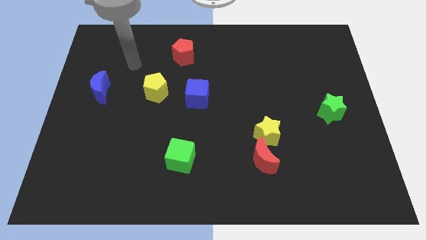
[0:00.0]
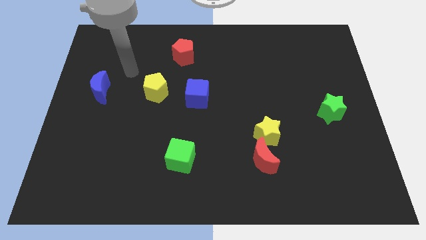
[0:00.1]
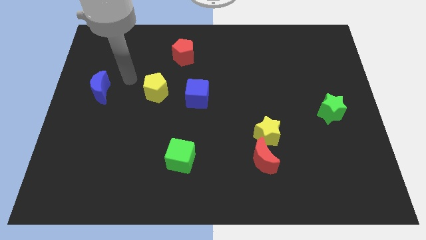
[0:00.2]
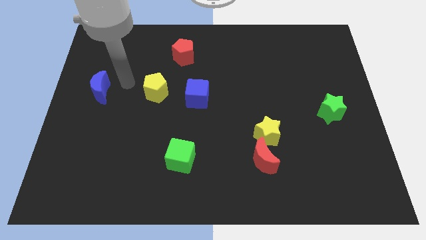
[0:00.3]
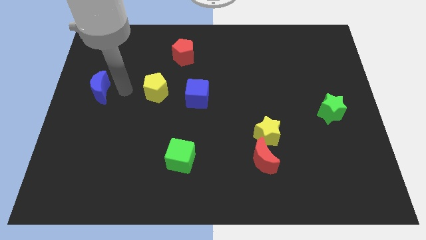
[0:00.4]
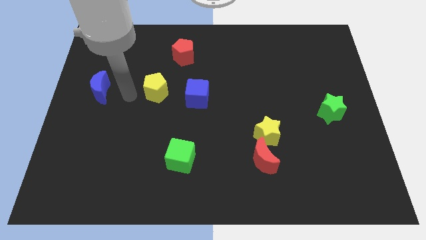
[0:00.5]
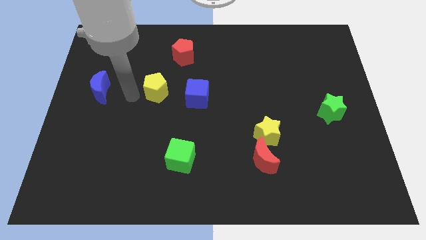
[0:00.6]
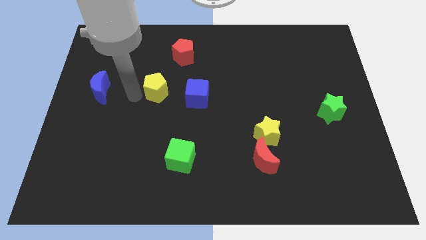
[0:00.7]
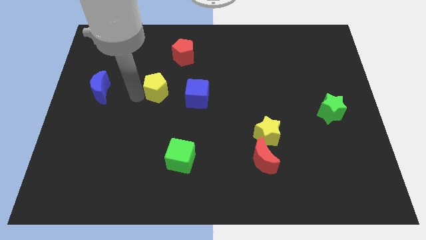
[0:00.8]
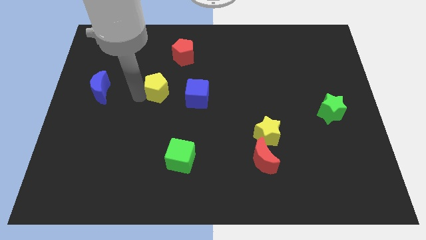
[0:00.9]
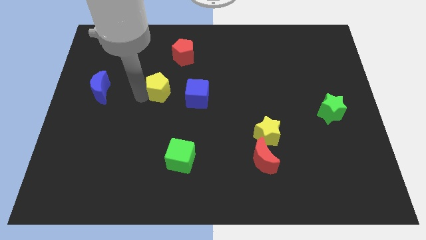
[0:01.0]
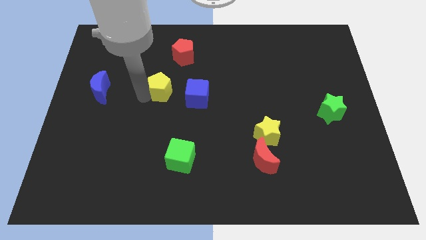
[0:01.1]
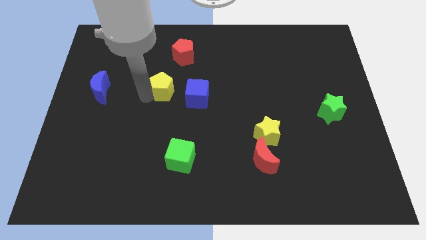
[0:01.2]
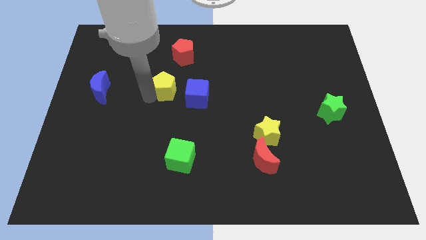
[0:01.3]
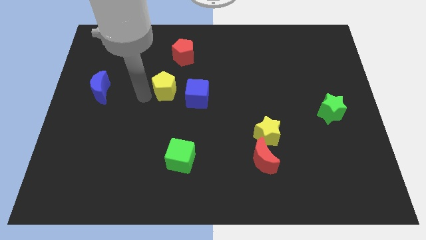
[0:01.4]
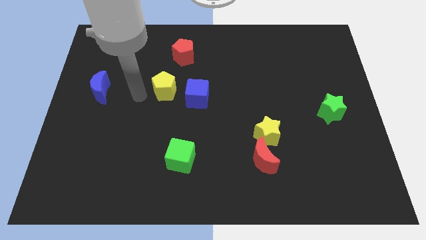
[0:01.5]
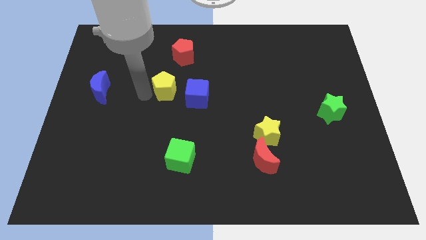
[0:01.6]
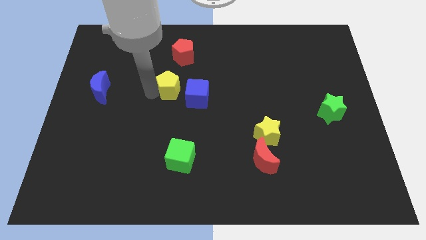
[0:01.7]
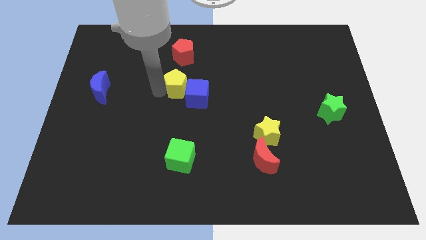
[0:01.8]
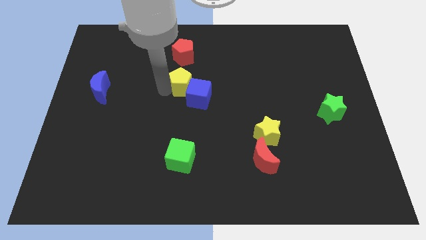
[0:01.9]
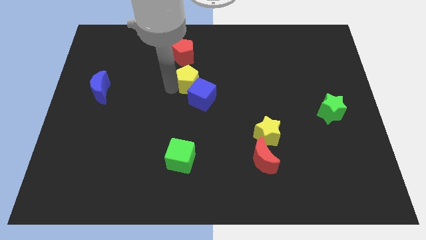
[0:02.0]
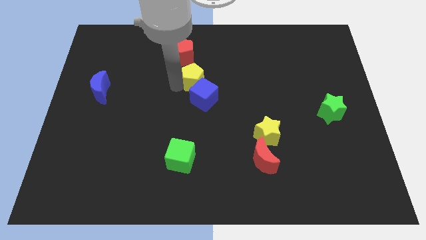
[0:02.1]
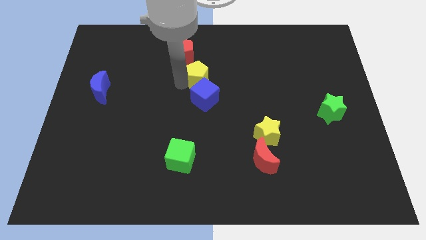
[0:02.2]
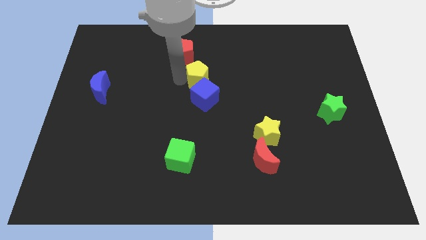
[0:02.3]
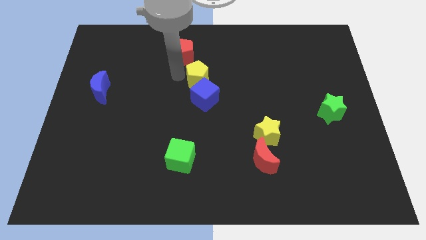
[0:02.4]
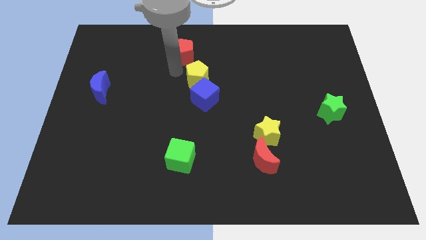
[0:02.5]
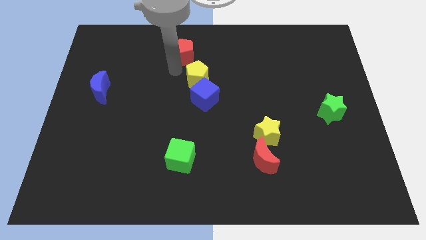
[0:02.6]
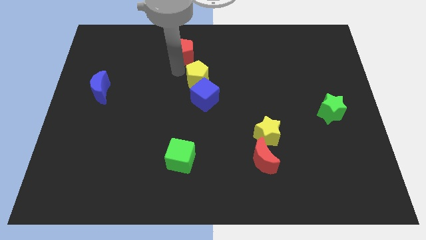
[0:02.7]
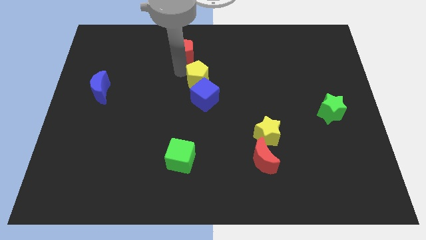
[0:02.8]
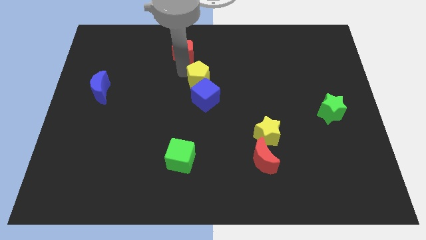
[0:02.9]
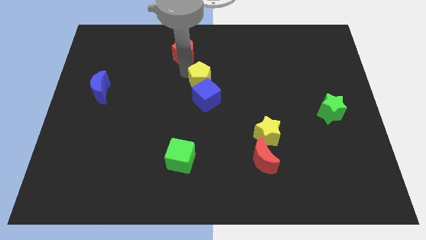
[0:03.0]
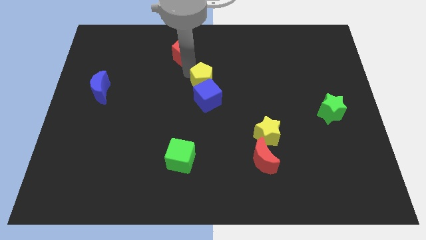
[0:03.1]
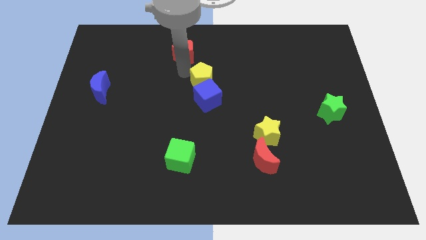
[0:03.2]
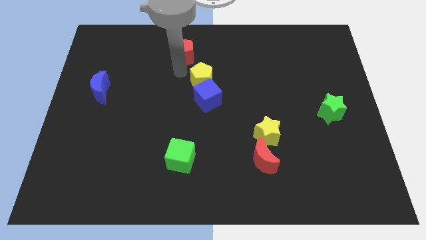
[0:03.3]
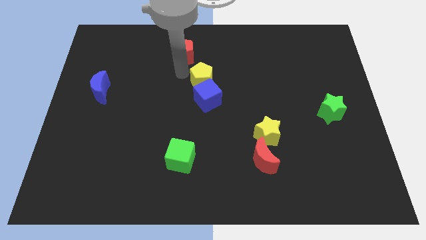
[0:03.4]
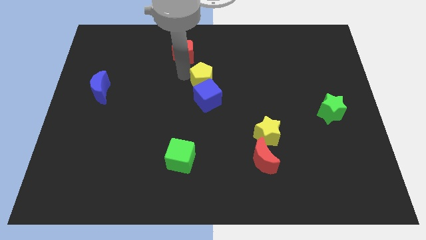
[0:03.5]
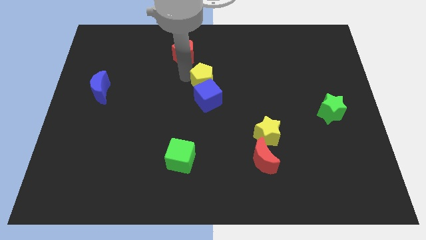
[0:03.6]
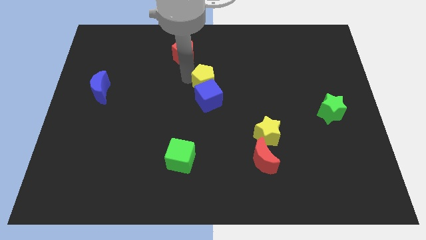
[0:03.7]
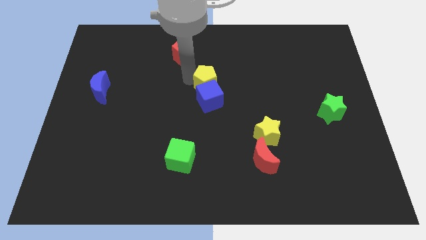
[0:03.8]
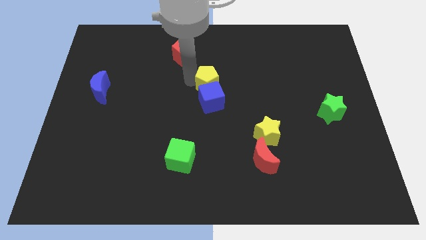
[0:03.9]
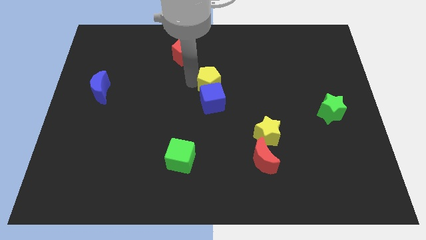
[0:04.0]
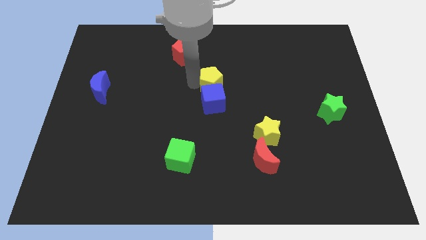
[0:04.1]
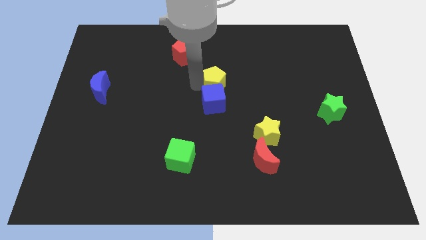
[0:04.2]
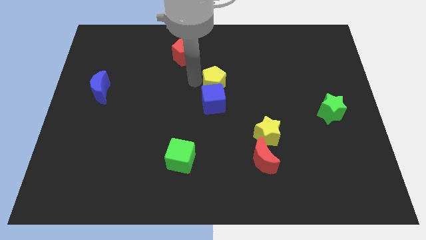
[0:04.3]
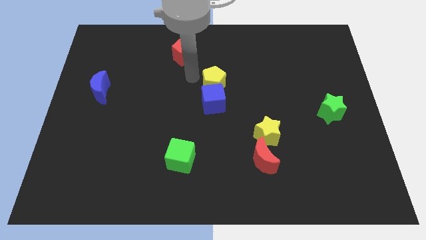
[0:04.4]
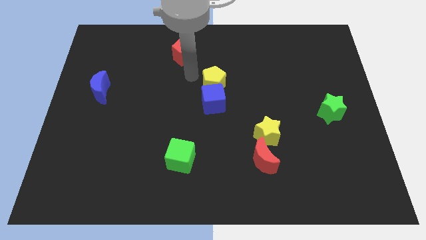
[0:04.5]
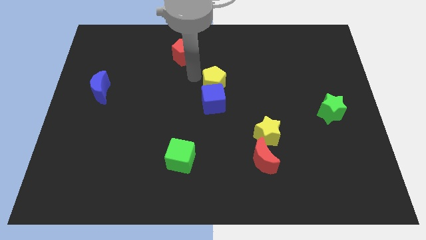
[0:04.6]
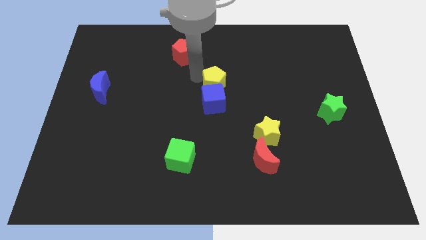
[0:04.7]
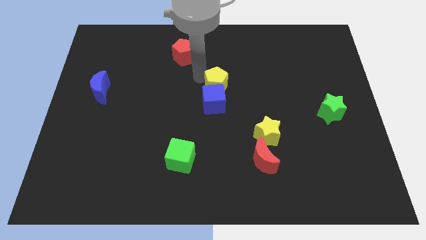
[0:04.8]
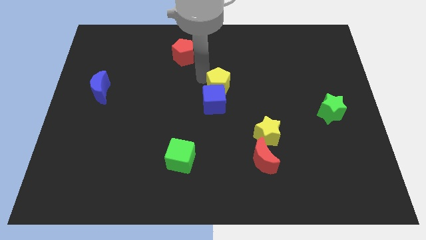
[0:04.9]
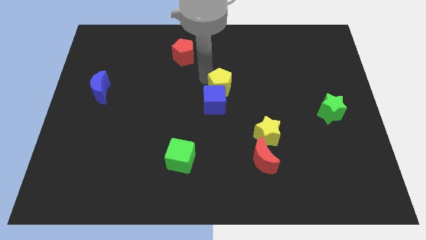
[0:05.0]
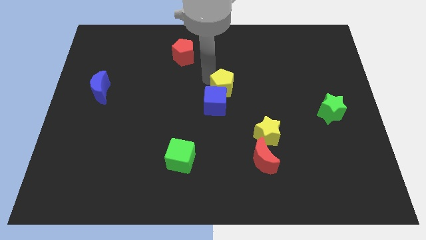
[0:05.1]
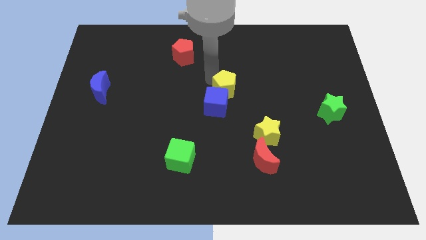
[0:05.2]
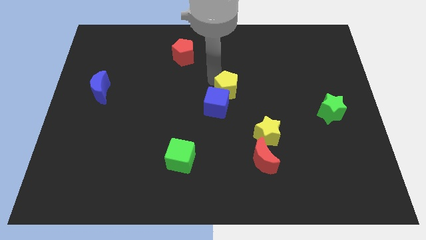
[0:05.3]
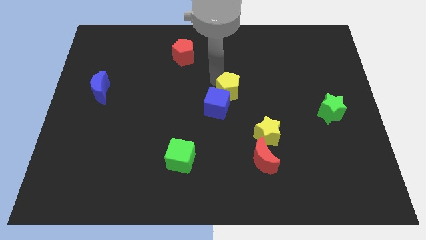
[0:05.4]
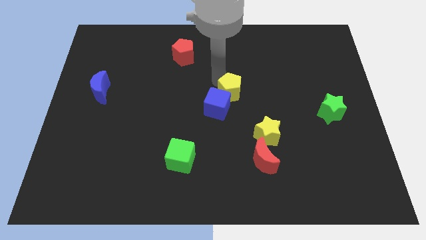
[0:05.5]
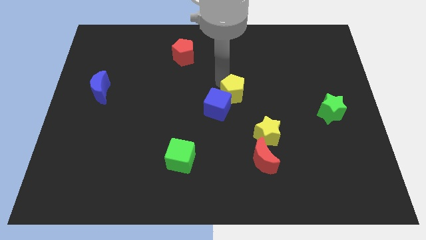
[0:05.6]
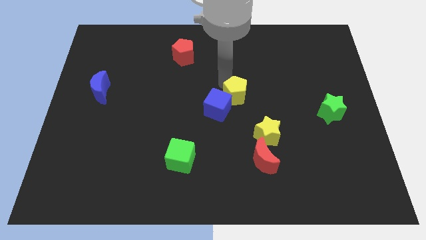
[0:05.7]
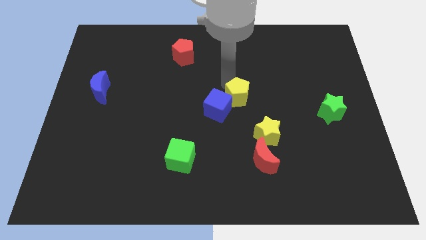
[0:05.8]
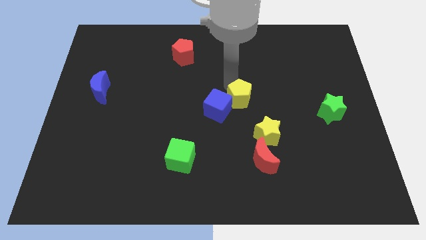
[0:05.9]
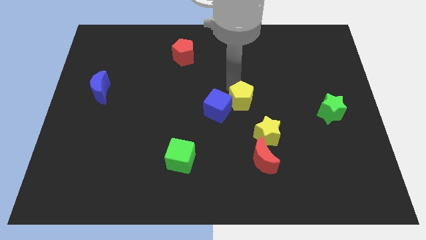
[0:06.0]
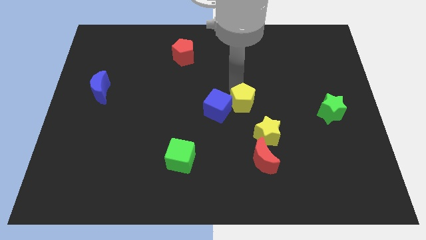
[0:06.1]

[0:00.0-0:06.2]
slide the yellow pentagon above the yellow star

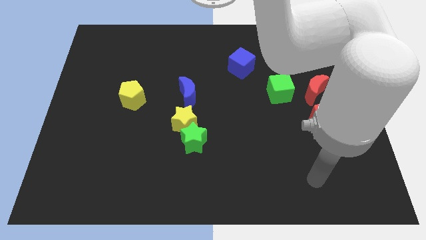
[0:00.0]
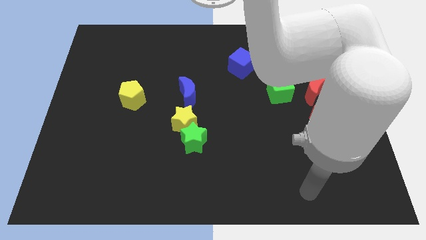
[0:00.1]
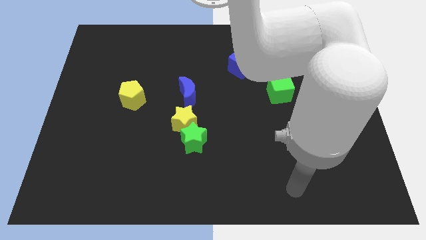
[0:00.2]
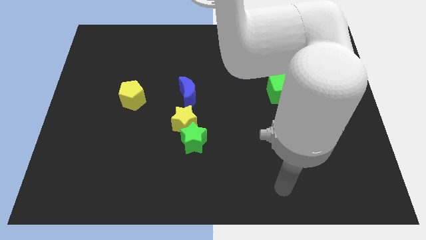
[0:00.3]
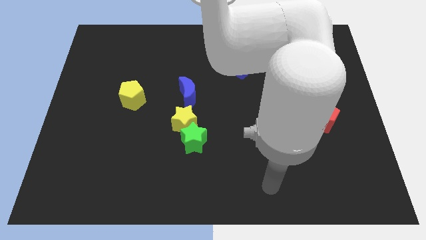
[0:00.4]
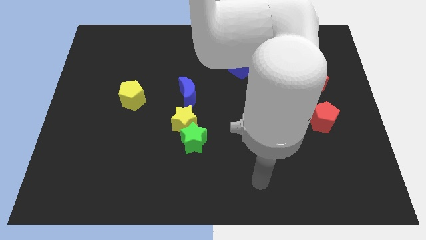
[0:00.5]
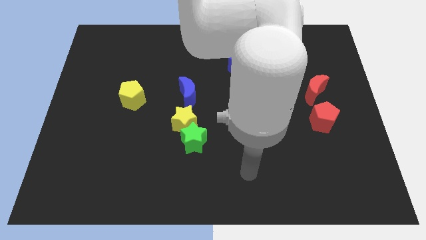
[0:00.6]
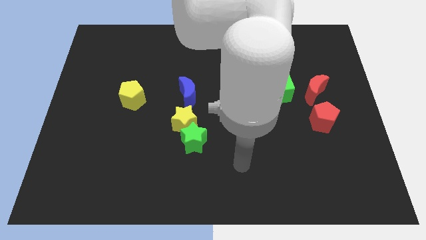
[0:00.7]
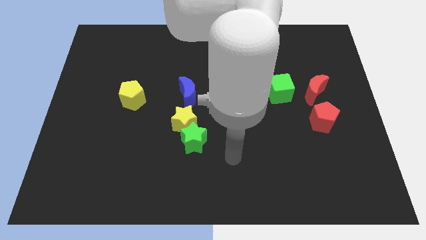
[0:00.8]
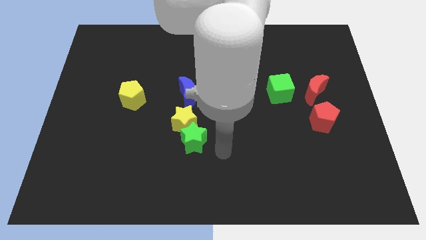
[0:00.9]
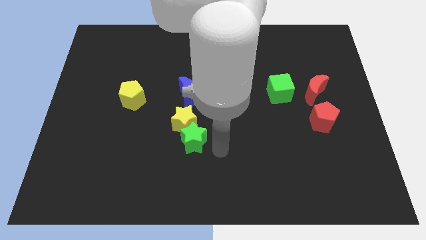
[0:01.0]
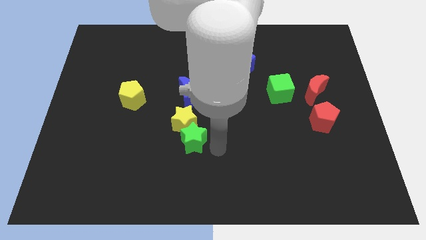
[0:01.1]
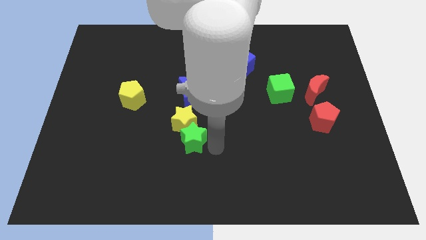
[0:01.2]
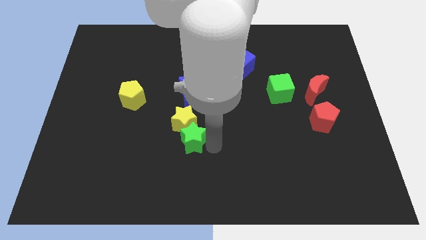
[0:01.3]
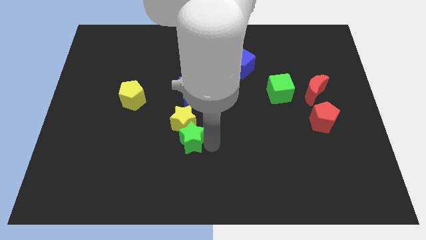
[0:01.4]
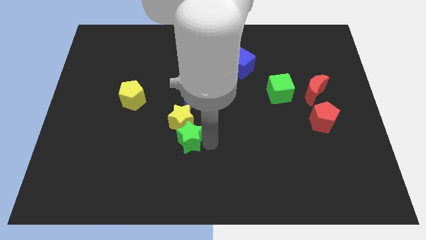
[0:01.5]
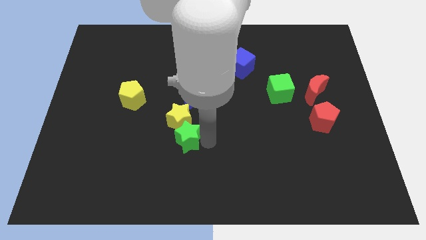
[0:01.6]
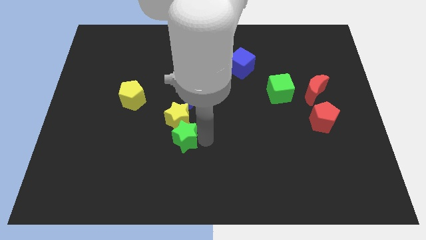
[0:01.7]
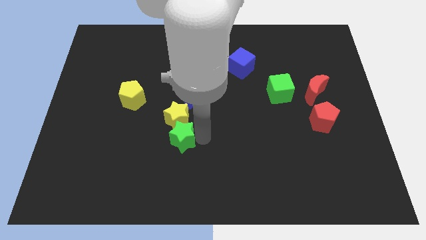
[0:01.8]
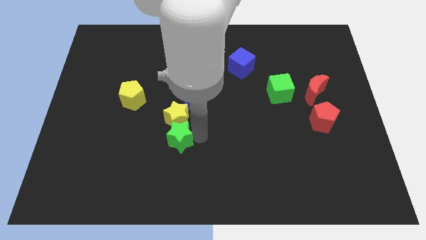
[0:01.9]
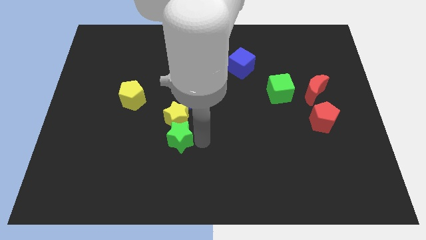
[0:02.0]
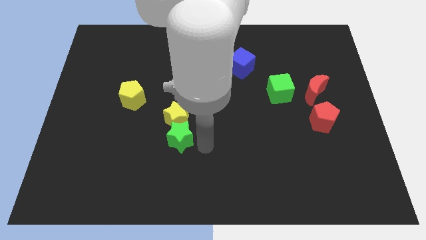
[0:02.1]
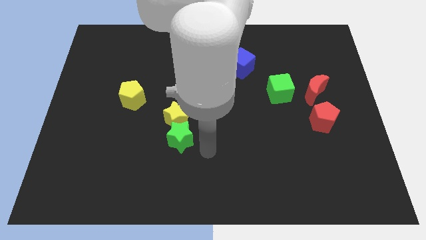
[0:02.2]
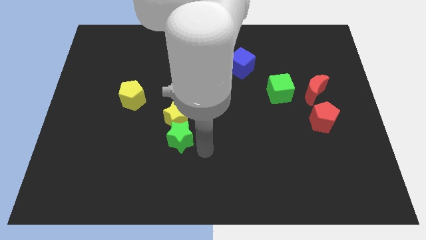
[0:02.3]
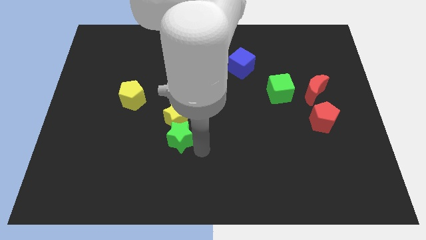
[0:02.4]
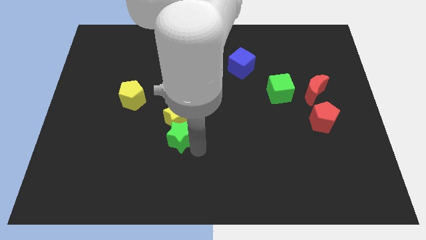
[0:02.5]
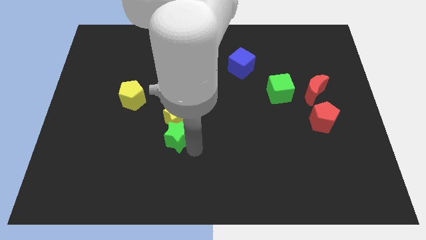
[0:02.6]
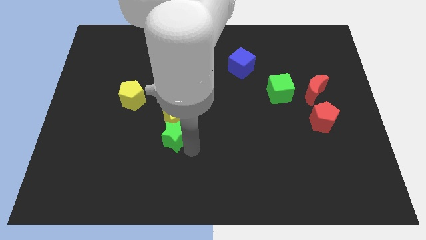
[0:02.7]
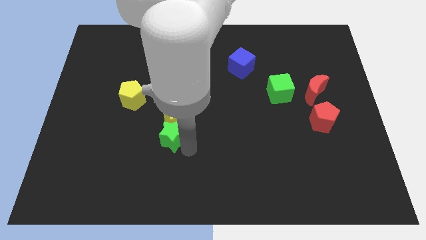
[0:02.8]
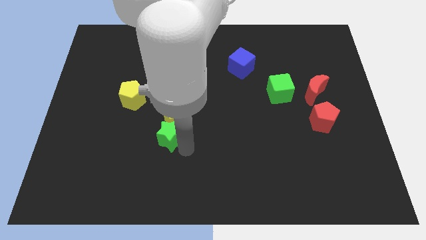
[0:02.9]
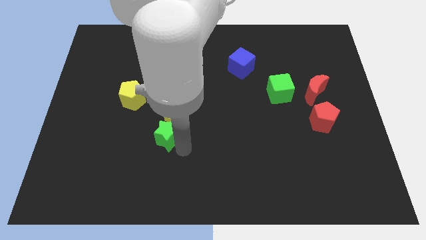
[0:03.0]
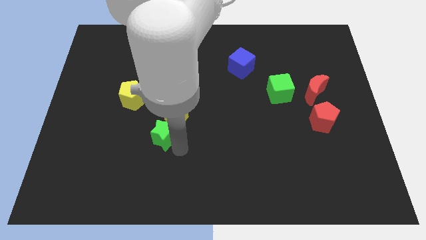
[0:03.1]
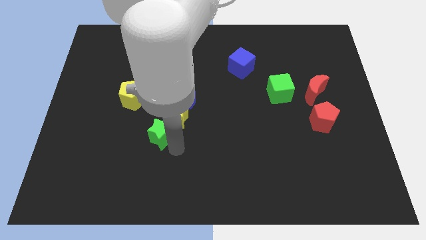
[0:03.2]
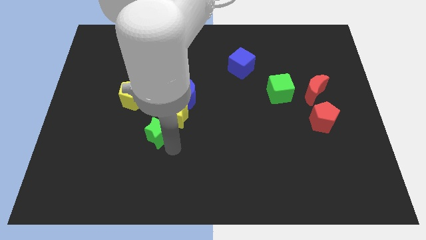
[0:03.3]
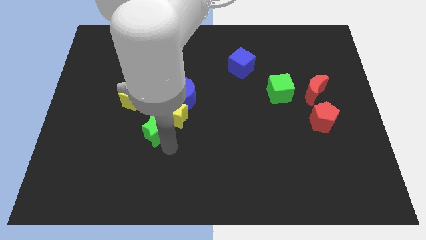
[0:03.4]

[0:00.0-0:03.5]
push the green star to the bottom right side of the yellow pentagon
